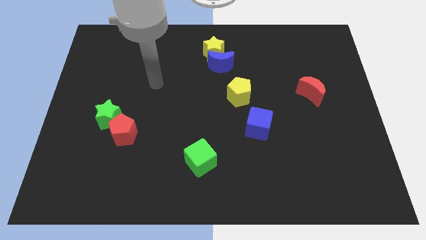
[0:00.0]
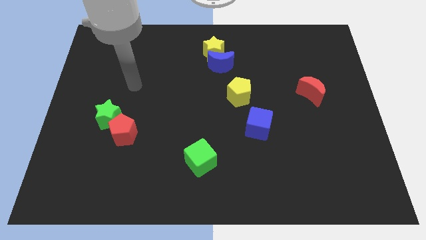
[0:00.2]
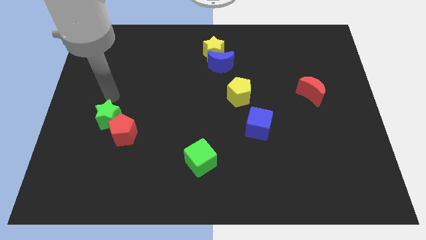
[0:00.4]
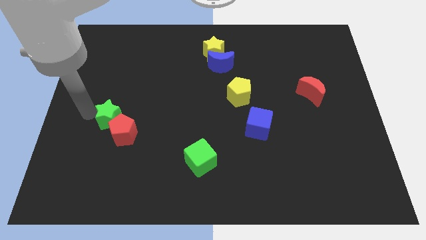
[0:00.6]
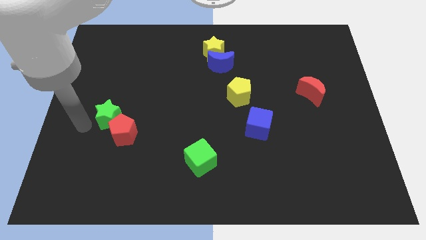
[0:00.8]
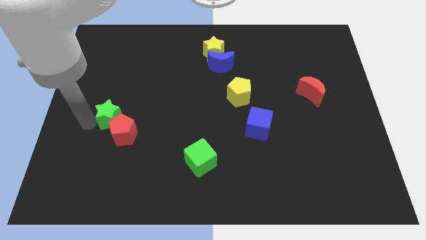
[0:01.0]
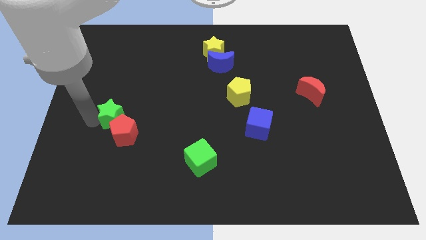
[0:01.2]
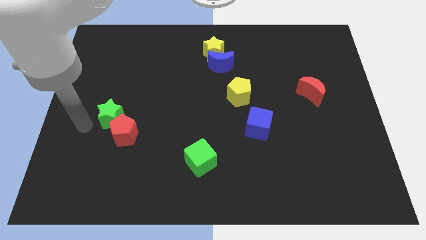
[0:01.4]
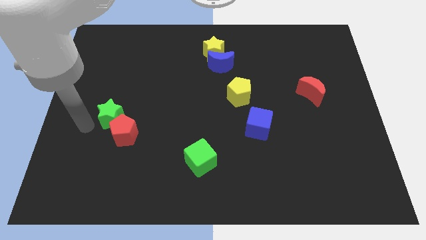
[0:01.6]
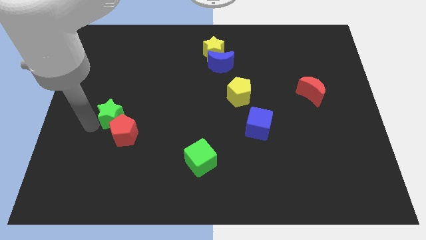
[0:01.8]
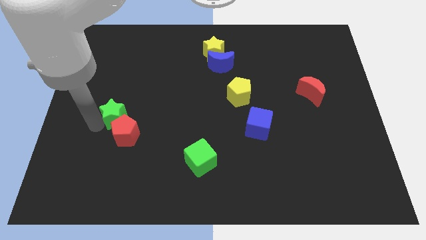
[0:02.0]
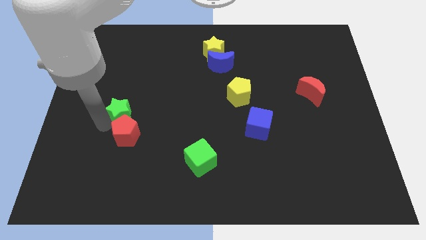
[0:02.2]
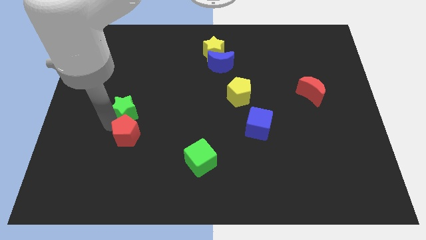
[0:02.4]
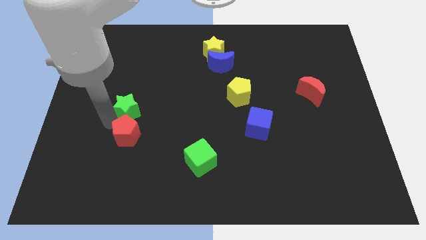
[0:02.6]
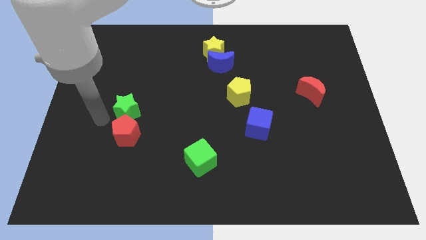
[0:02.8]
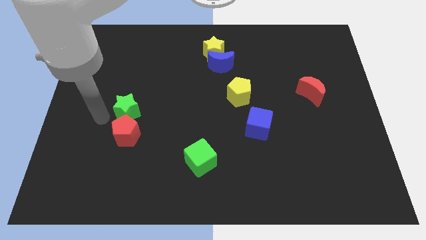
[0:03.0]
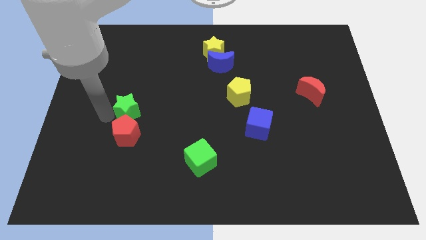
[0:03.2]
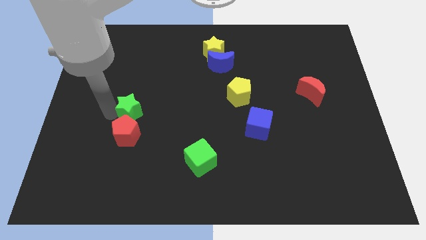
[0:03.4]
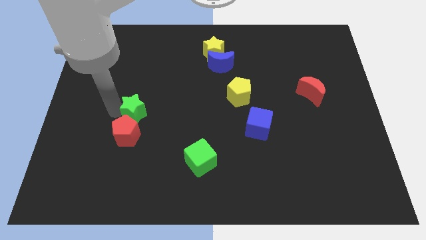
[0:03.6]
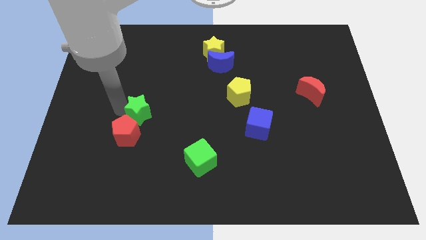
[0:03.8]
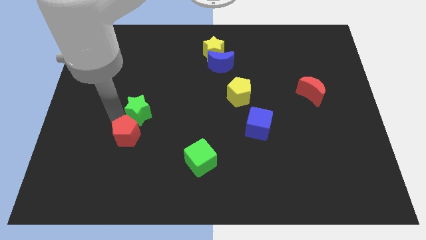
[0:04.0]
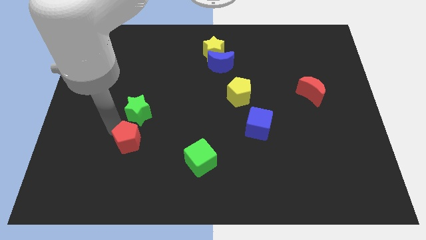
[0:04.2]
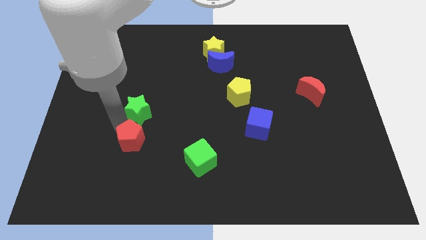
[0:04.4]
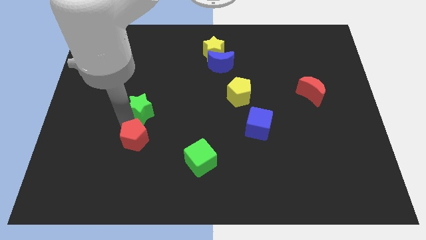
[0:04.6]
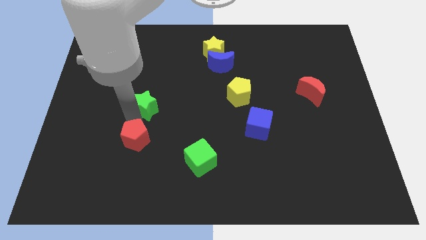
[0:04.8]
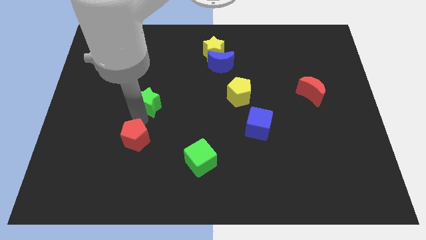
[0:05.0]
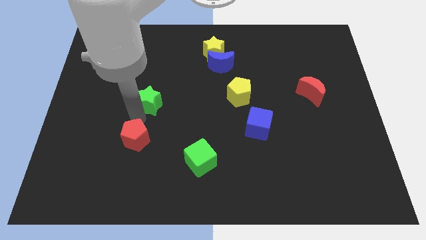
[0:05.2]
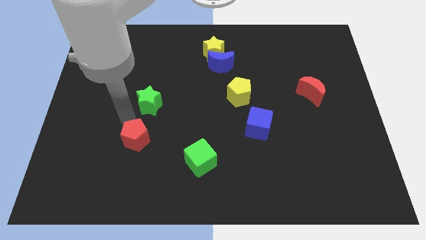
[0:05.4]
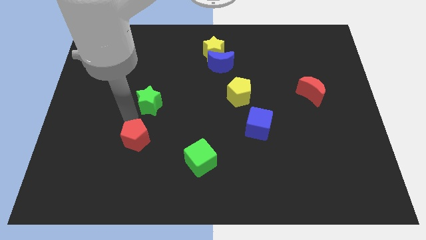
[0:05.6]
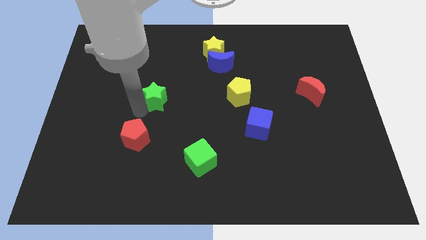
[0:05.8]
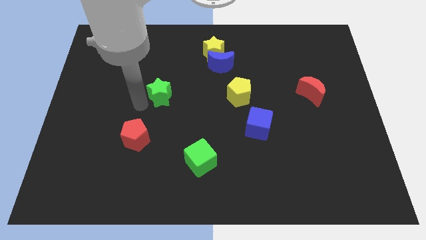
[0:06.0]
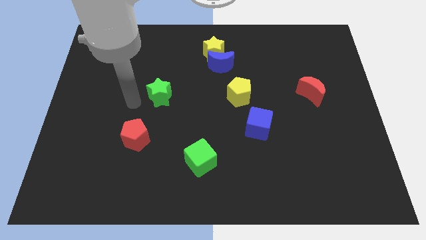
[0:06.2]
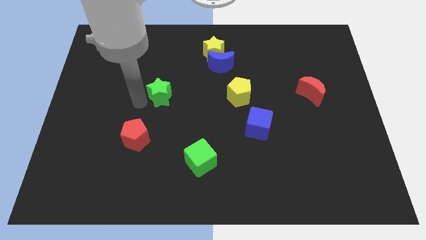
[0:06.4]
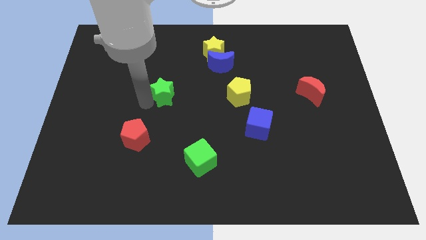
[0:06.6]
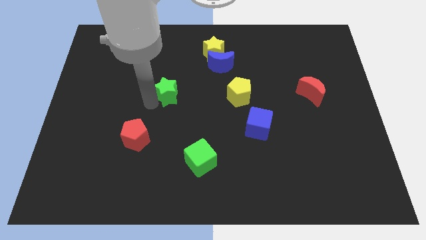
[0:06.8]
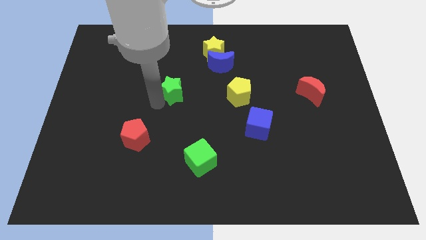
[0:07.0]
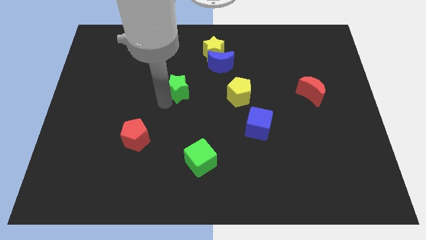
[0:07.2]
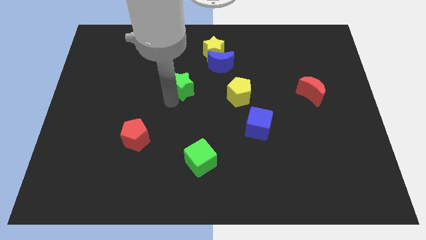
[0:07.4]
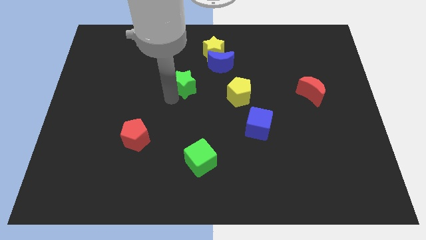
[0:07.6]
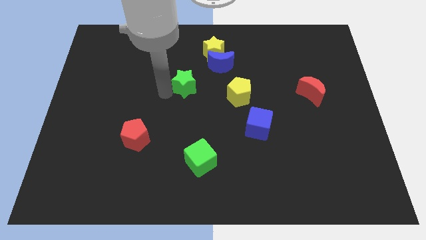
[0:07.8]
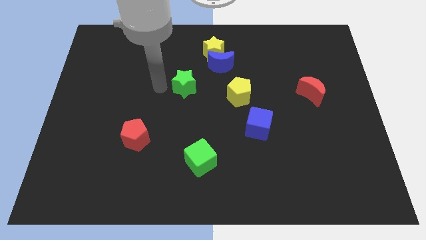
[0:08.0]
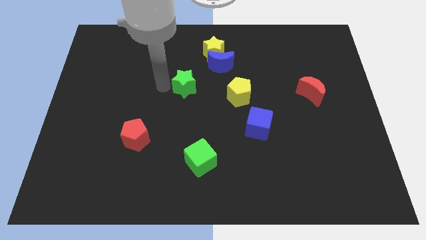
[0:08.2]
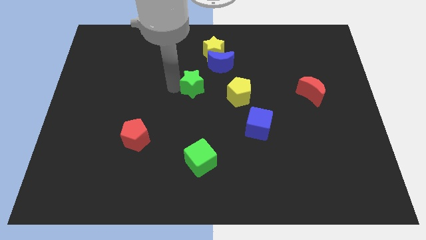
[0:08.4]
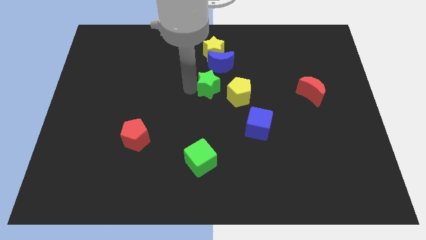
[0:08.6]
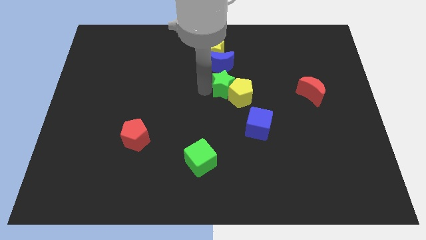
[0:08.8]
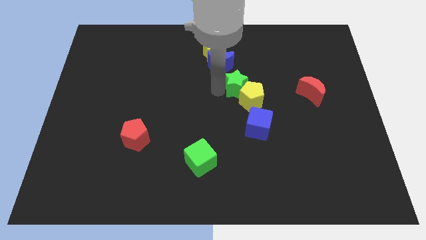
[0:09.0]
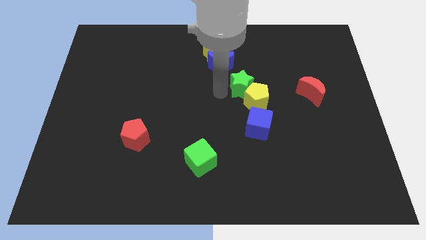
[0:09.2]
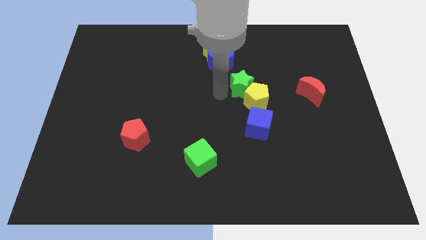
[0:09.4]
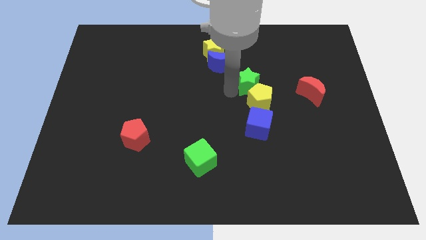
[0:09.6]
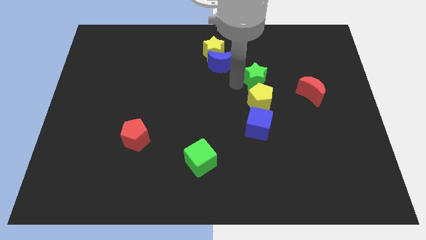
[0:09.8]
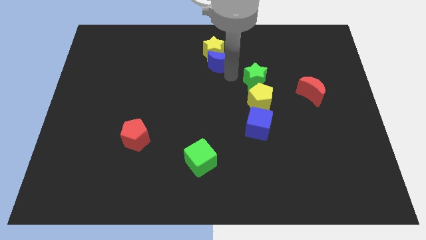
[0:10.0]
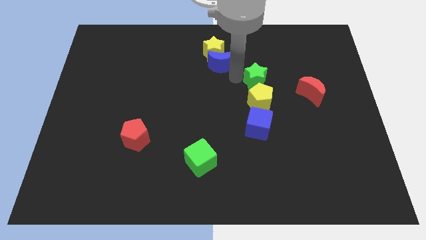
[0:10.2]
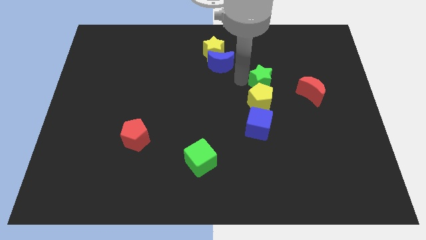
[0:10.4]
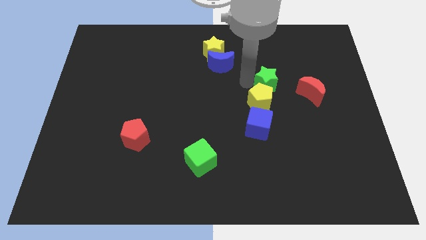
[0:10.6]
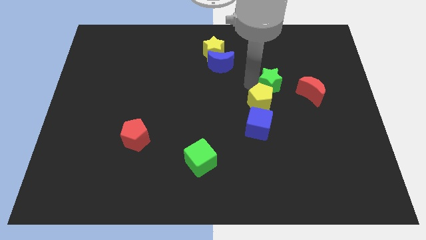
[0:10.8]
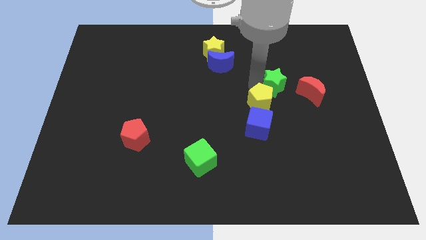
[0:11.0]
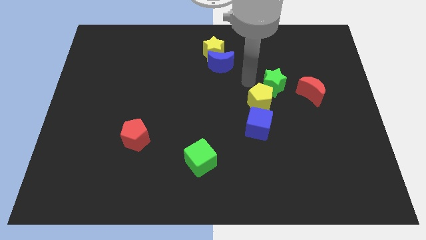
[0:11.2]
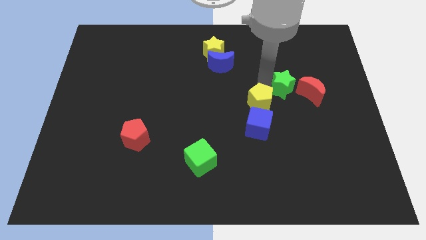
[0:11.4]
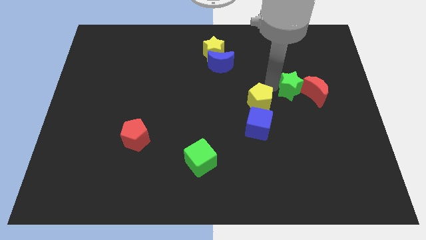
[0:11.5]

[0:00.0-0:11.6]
slide the green star to the red moon
